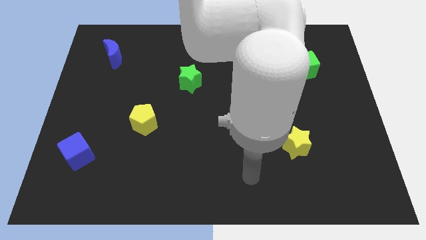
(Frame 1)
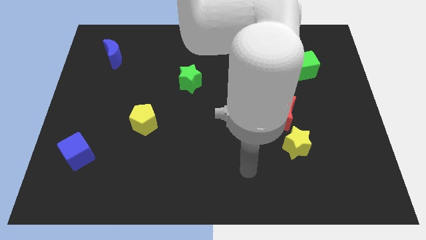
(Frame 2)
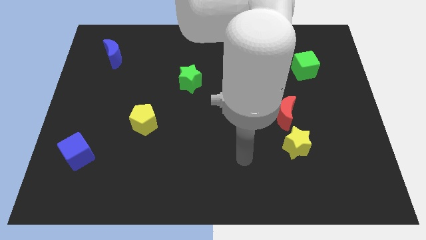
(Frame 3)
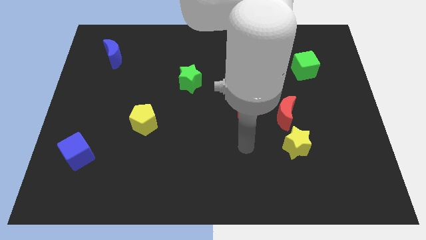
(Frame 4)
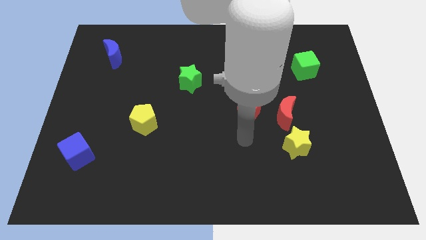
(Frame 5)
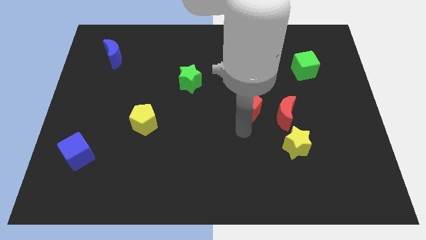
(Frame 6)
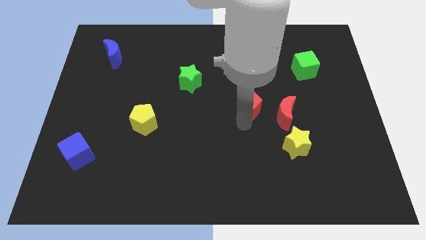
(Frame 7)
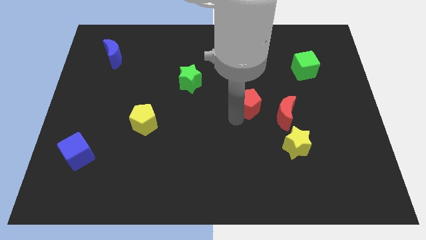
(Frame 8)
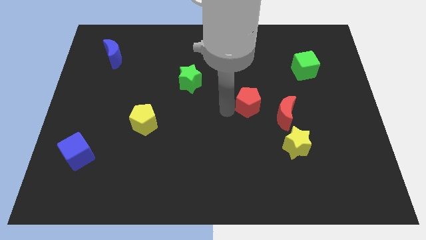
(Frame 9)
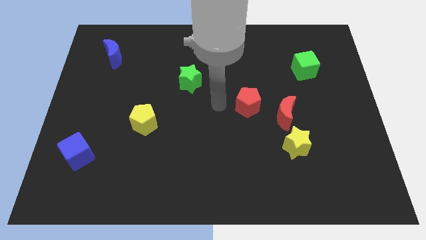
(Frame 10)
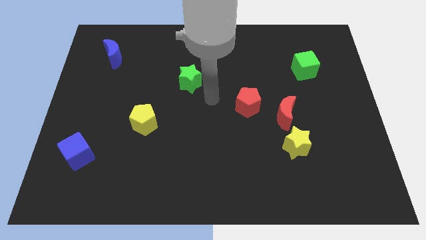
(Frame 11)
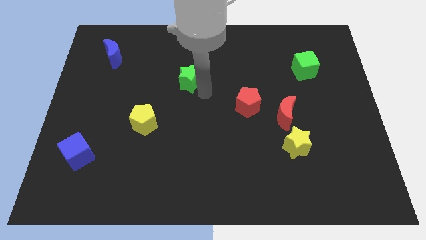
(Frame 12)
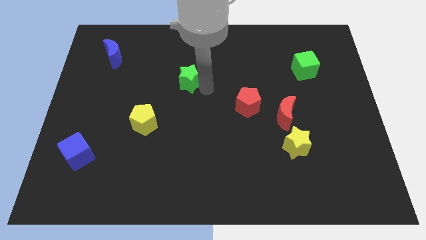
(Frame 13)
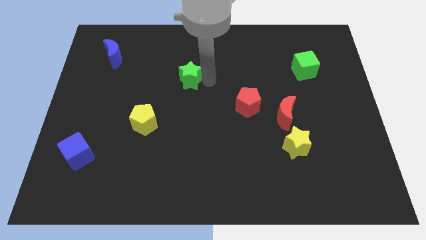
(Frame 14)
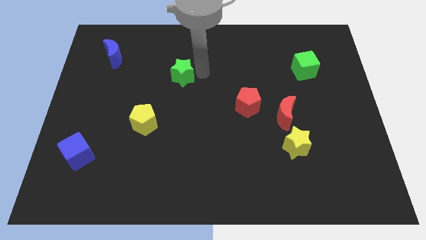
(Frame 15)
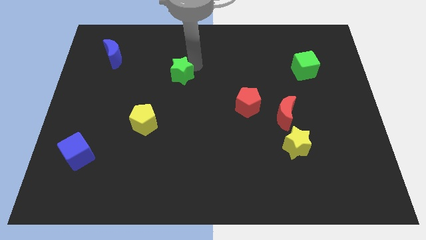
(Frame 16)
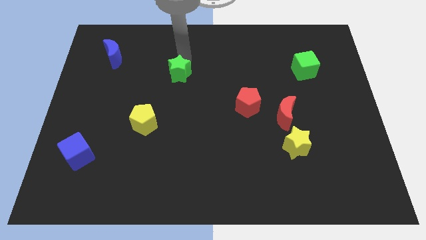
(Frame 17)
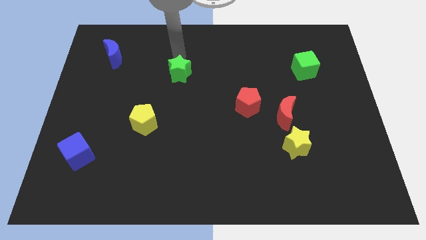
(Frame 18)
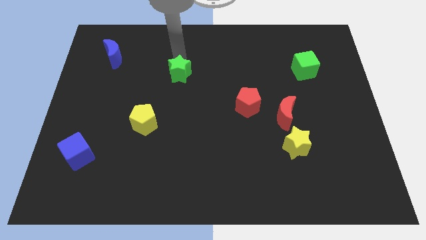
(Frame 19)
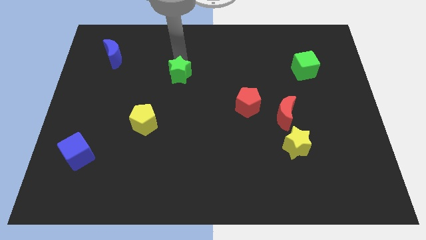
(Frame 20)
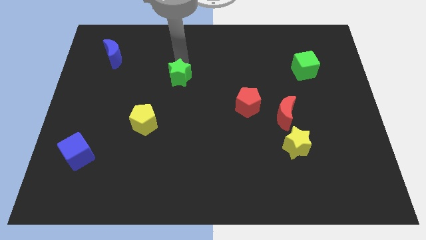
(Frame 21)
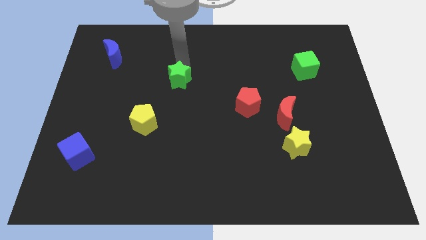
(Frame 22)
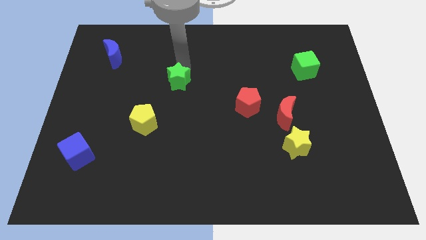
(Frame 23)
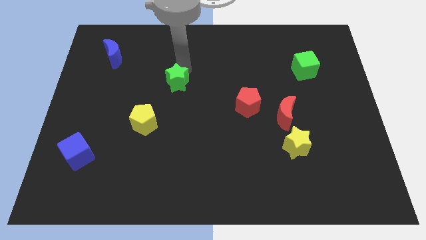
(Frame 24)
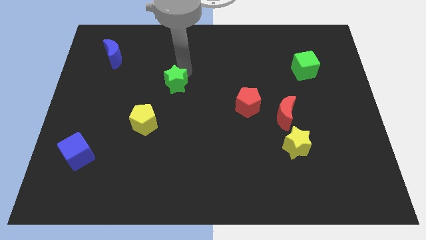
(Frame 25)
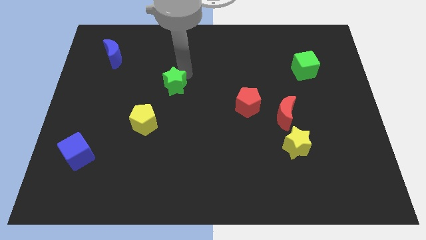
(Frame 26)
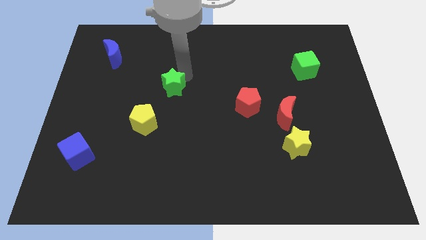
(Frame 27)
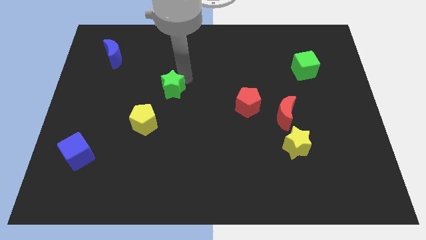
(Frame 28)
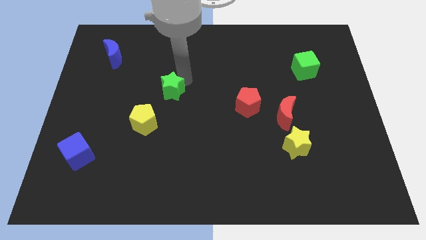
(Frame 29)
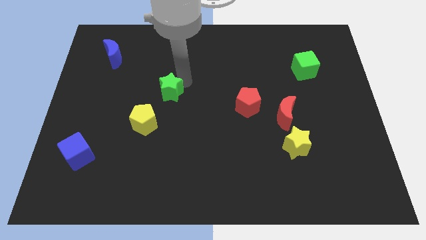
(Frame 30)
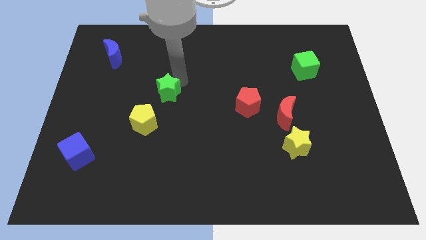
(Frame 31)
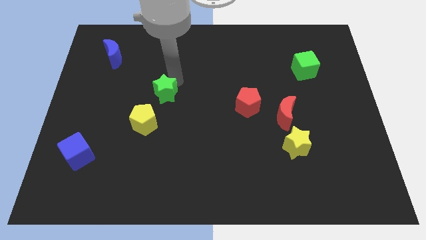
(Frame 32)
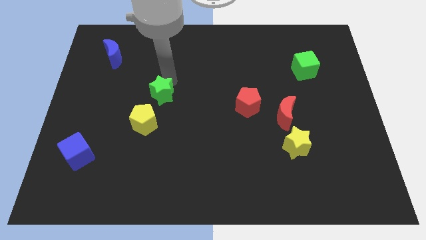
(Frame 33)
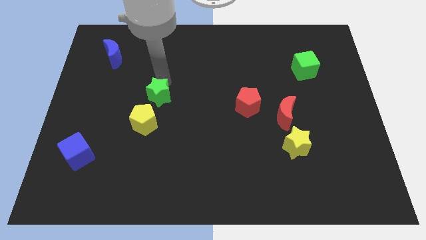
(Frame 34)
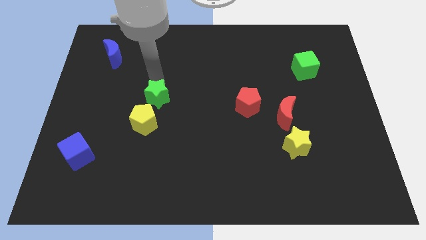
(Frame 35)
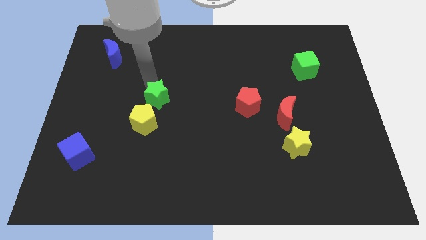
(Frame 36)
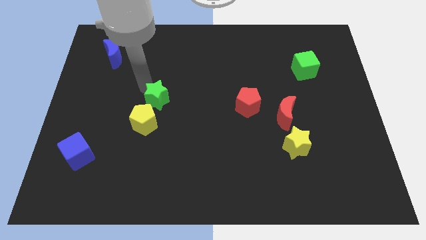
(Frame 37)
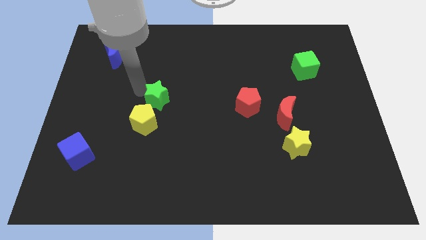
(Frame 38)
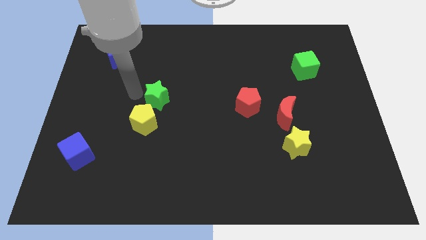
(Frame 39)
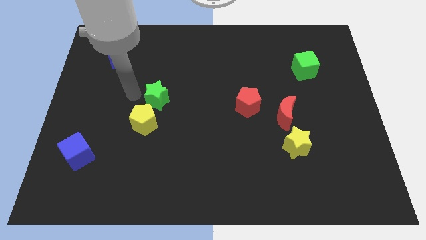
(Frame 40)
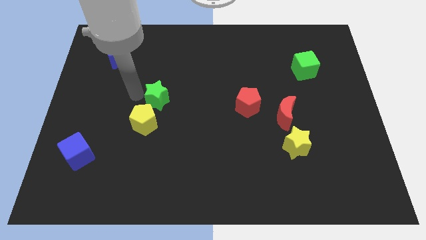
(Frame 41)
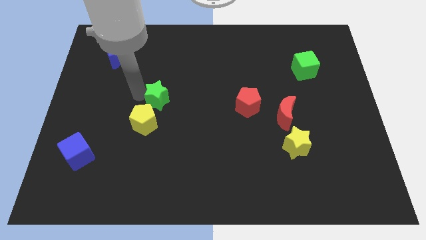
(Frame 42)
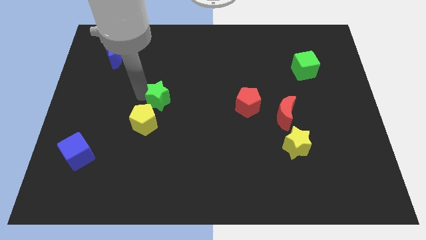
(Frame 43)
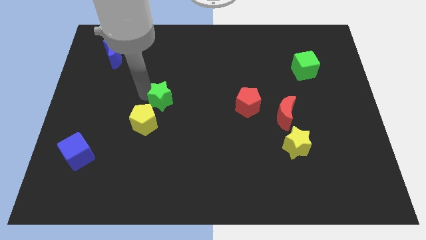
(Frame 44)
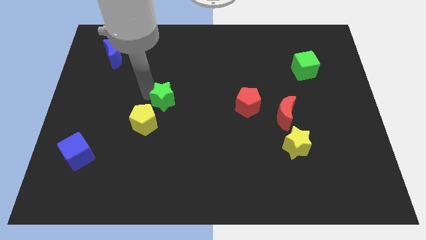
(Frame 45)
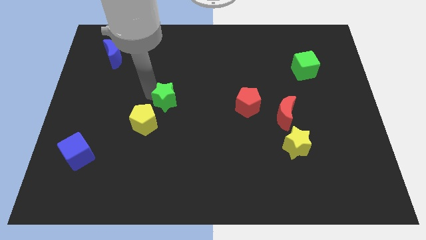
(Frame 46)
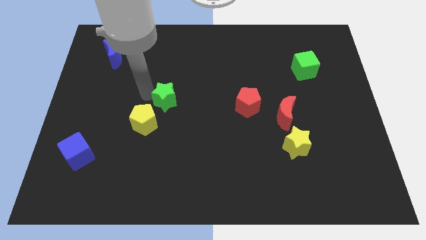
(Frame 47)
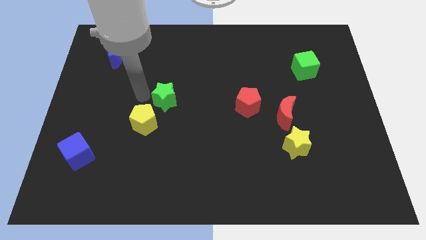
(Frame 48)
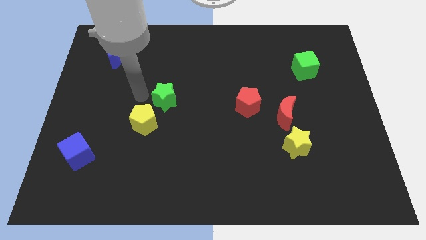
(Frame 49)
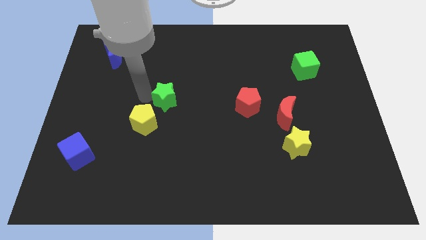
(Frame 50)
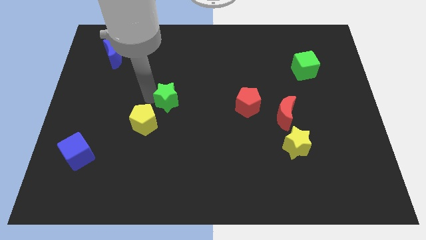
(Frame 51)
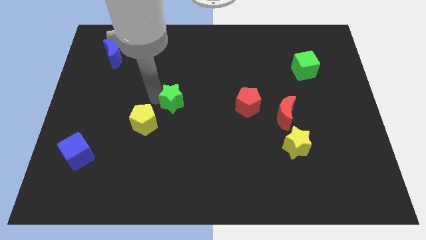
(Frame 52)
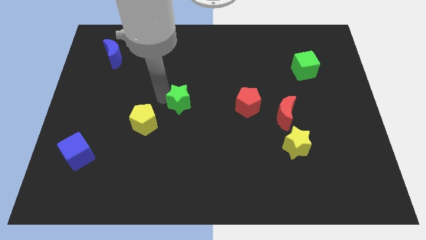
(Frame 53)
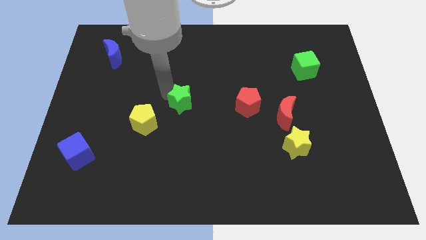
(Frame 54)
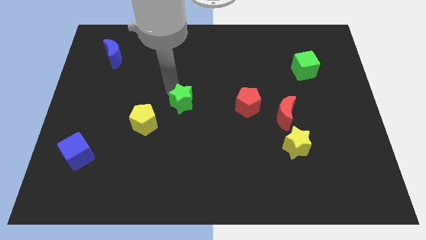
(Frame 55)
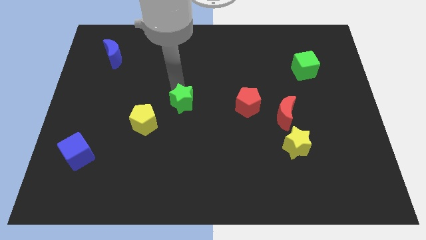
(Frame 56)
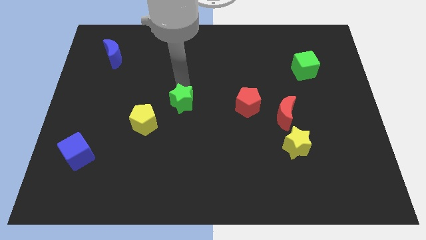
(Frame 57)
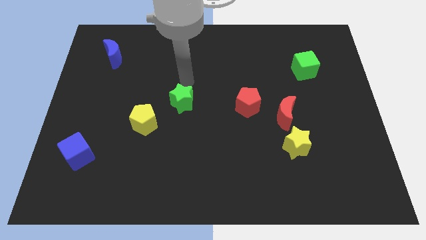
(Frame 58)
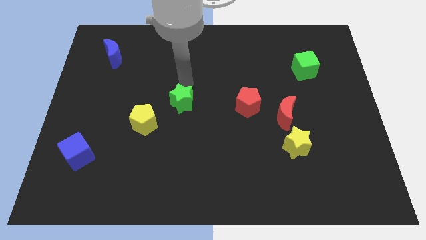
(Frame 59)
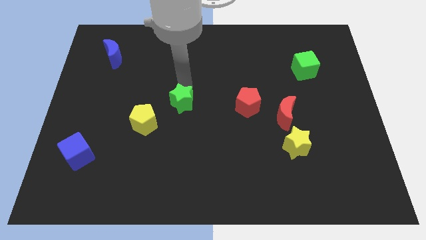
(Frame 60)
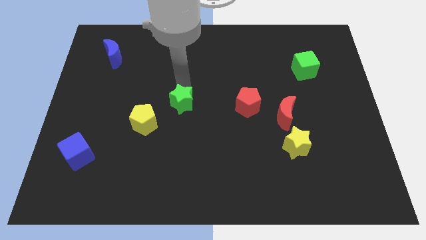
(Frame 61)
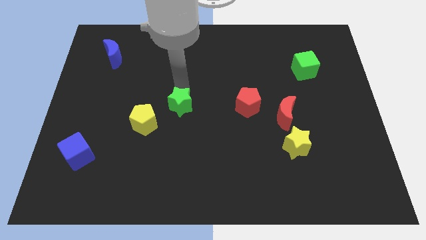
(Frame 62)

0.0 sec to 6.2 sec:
push the green star slightly downwards

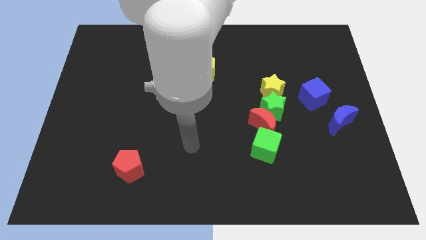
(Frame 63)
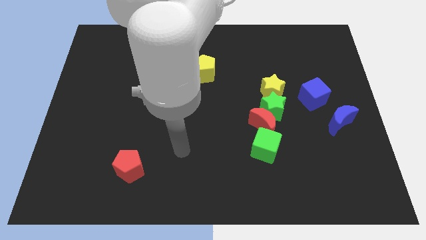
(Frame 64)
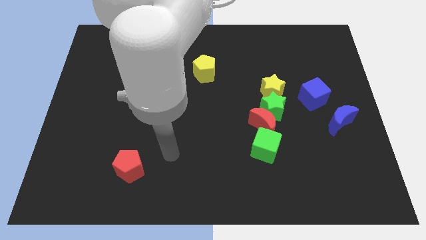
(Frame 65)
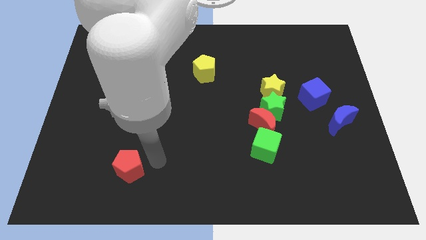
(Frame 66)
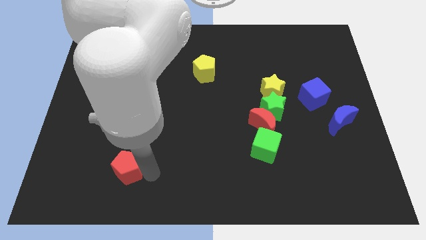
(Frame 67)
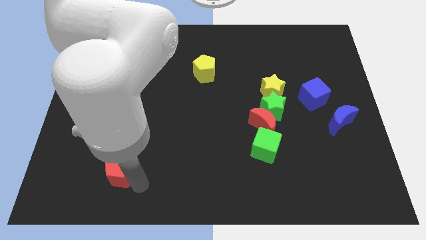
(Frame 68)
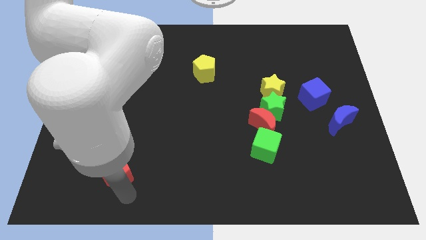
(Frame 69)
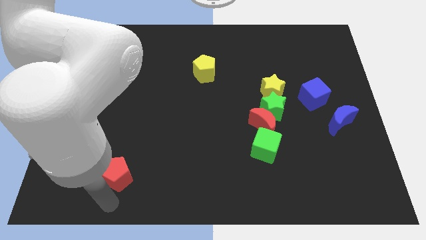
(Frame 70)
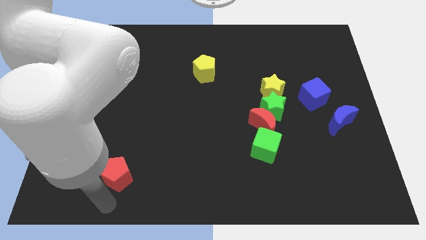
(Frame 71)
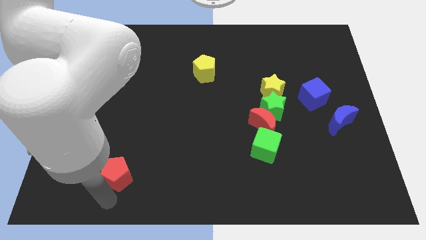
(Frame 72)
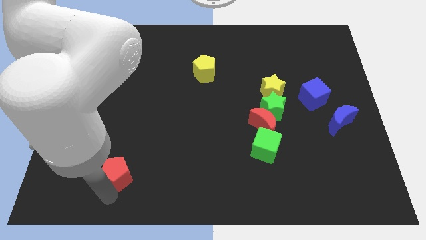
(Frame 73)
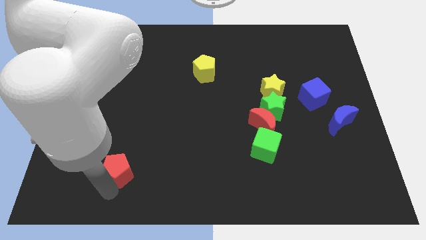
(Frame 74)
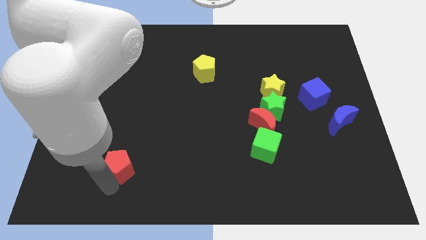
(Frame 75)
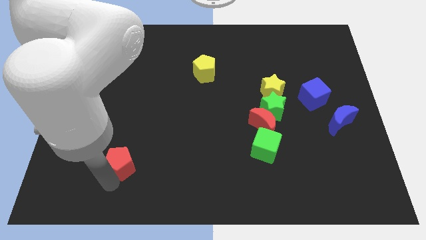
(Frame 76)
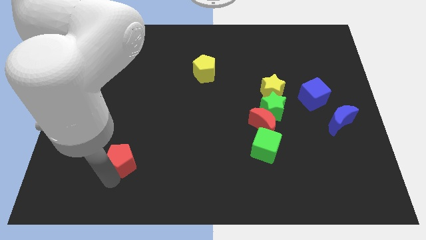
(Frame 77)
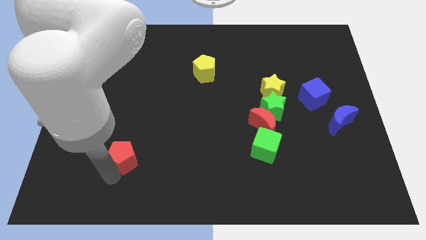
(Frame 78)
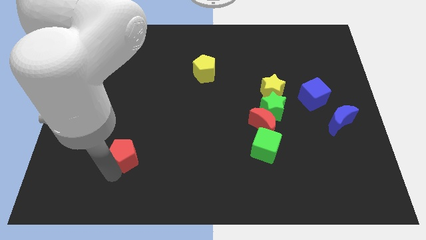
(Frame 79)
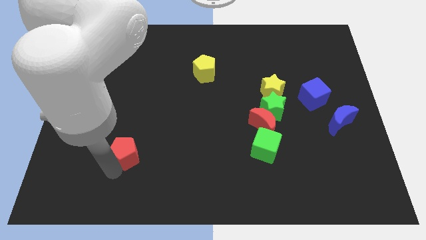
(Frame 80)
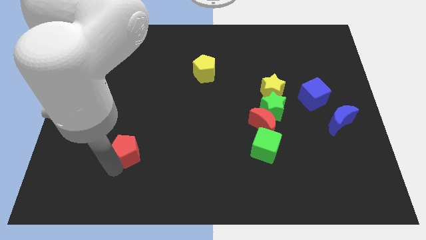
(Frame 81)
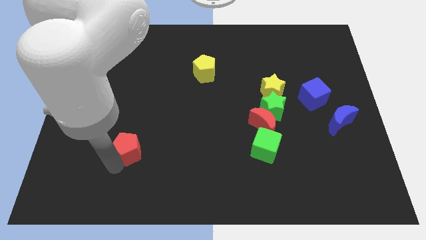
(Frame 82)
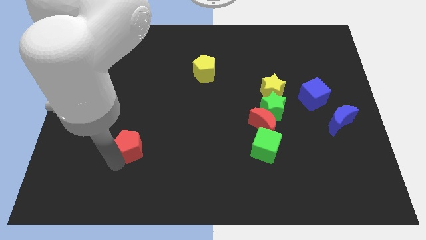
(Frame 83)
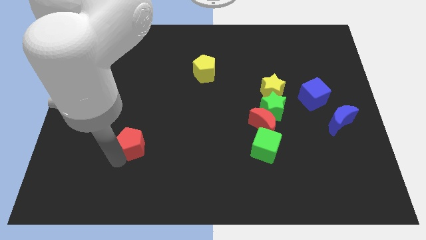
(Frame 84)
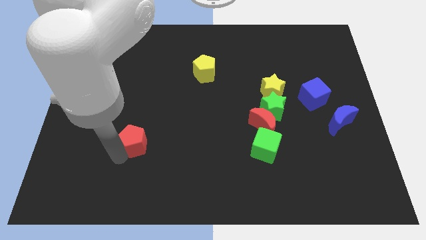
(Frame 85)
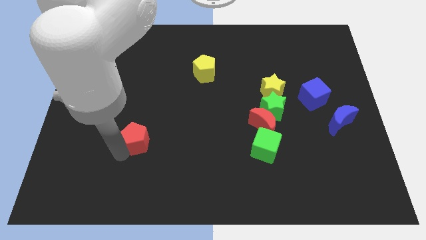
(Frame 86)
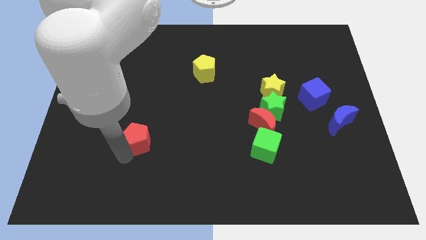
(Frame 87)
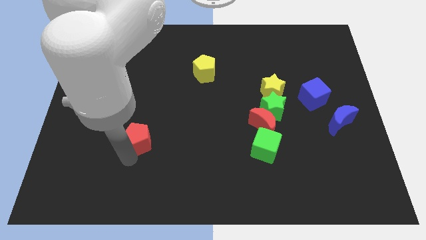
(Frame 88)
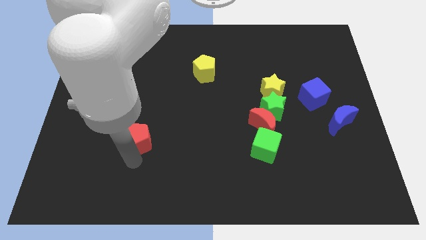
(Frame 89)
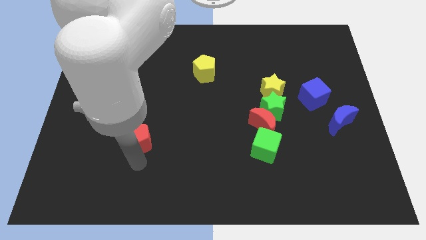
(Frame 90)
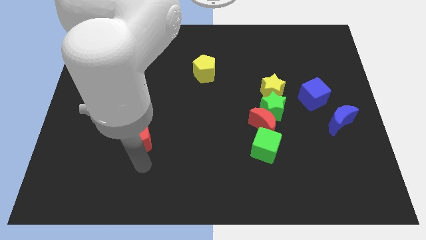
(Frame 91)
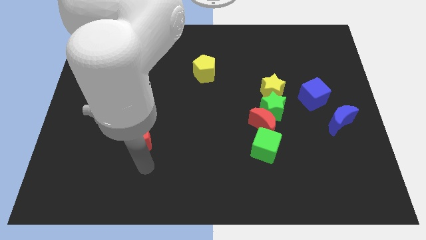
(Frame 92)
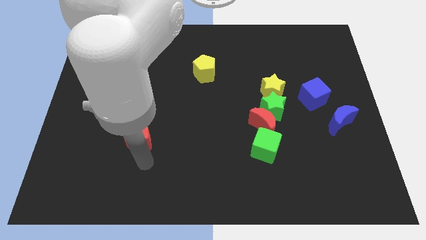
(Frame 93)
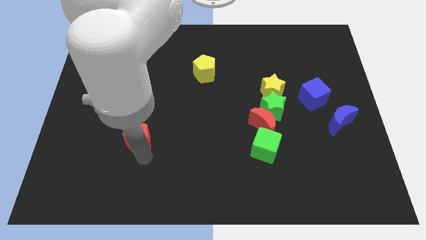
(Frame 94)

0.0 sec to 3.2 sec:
slightly push the red pentagon upwards
